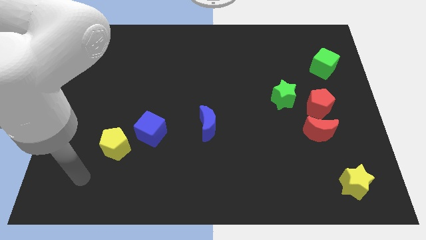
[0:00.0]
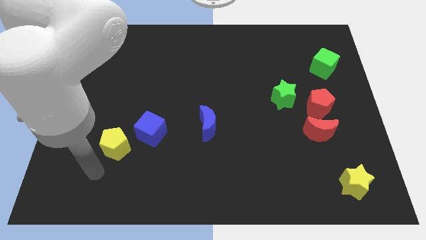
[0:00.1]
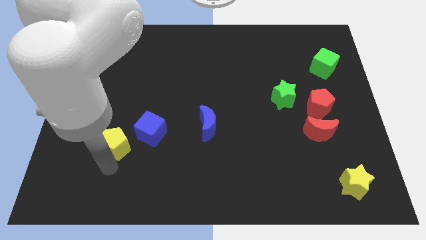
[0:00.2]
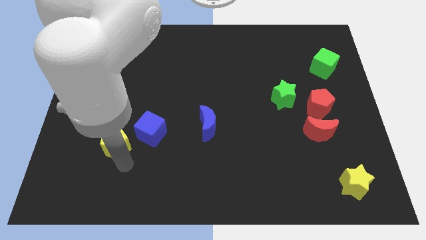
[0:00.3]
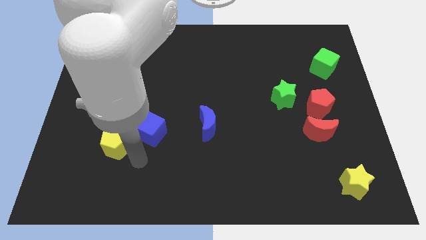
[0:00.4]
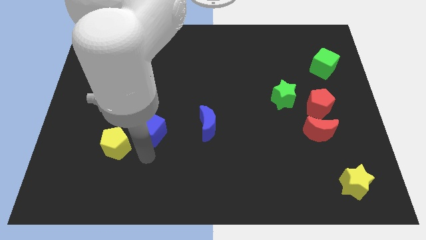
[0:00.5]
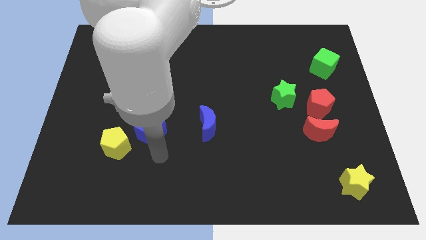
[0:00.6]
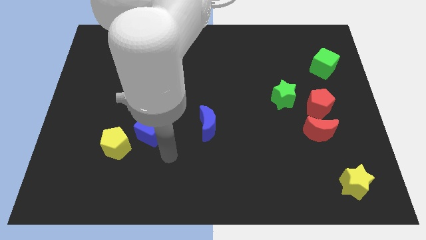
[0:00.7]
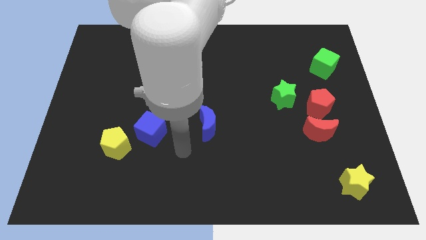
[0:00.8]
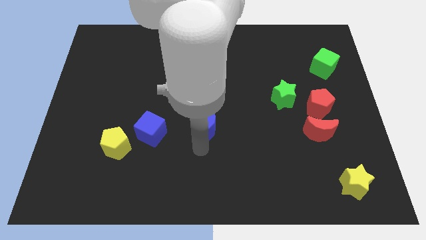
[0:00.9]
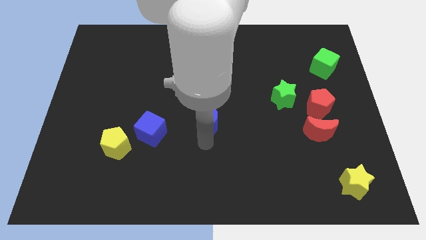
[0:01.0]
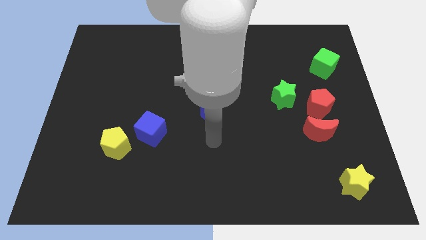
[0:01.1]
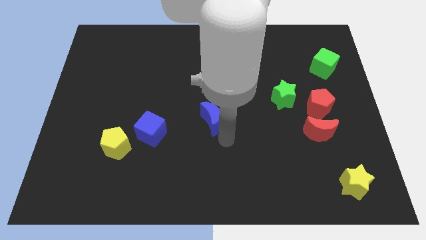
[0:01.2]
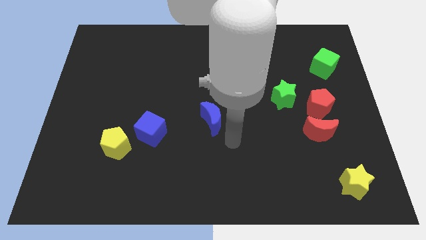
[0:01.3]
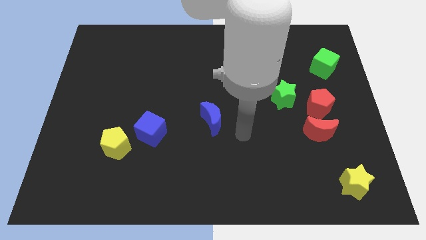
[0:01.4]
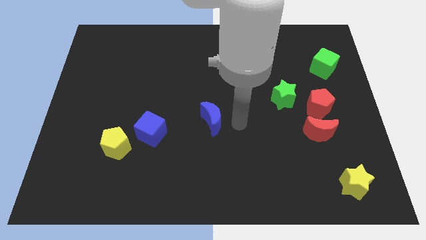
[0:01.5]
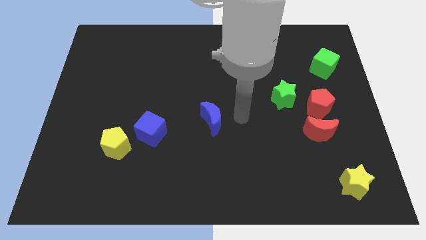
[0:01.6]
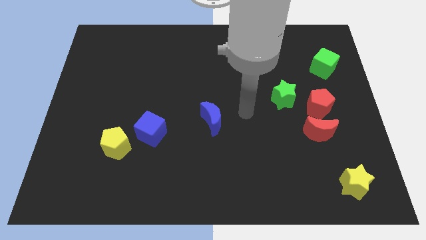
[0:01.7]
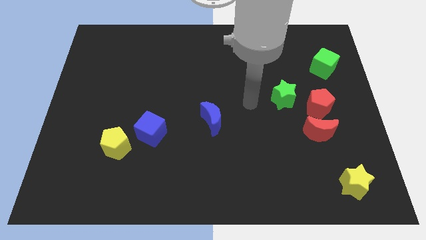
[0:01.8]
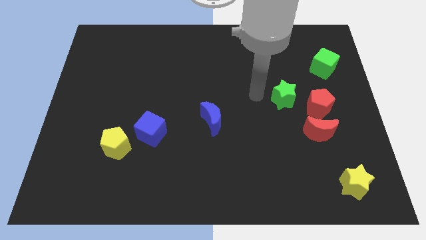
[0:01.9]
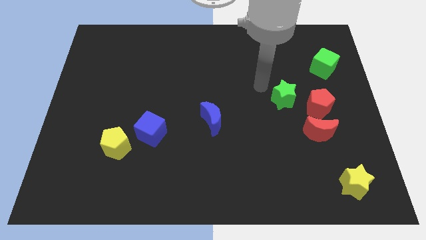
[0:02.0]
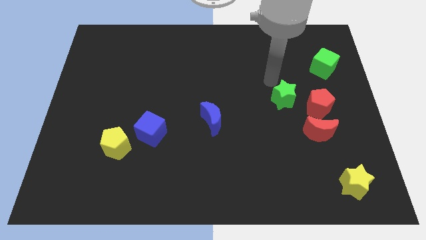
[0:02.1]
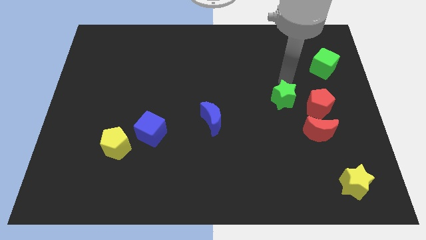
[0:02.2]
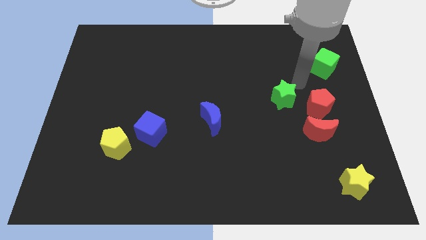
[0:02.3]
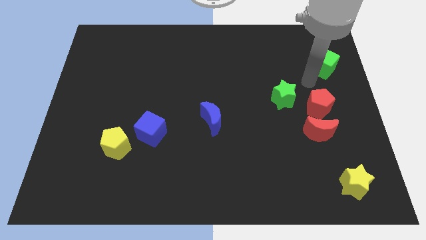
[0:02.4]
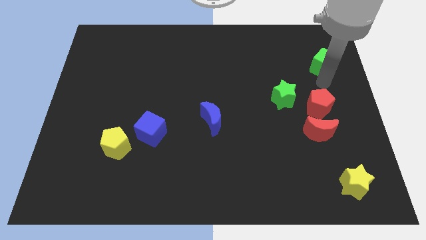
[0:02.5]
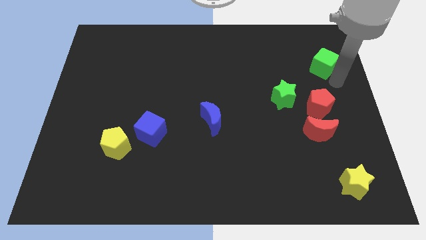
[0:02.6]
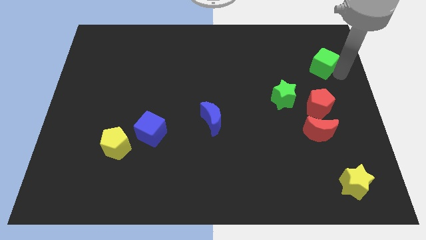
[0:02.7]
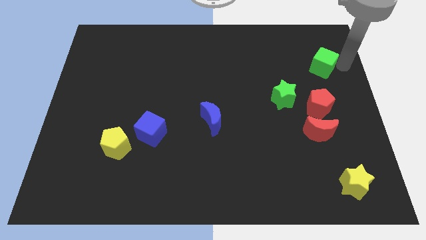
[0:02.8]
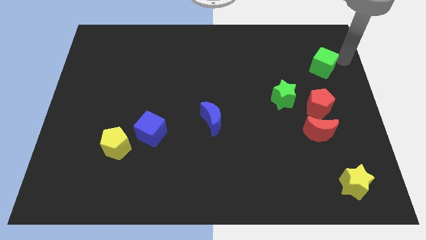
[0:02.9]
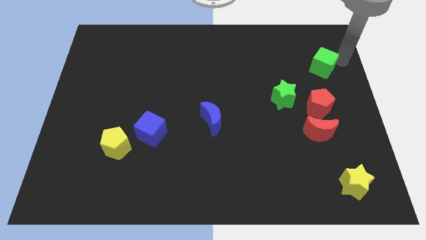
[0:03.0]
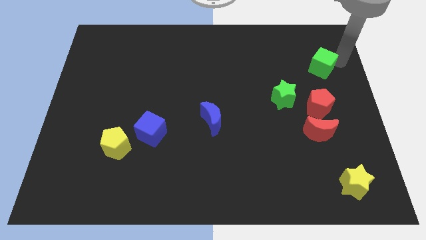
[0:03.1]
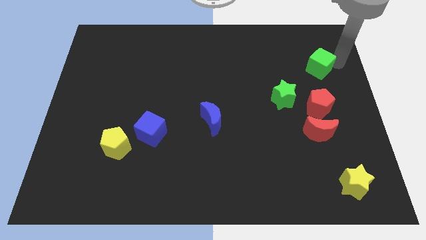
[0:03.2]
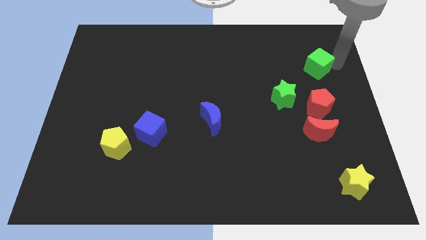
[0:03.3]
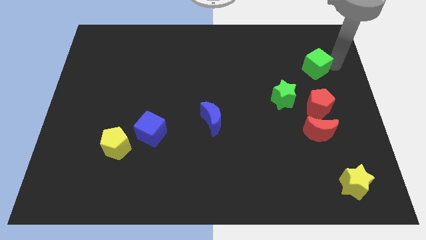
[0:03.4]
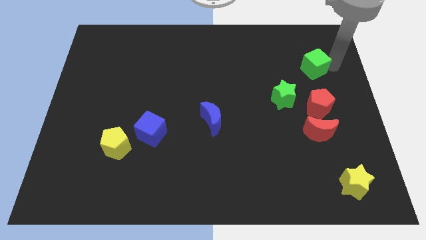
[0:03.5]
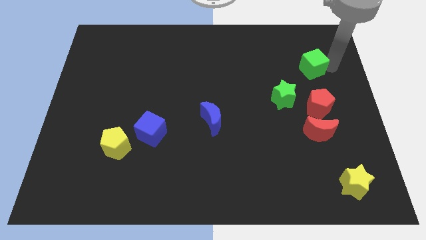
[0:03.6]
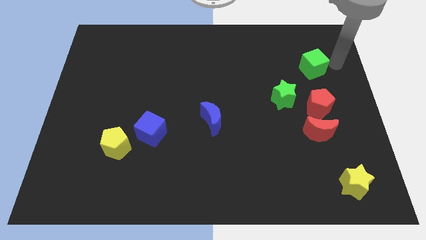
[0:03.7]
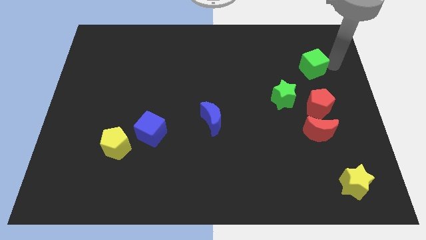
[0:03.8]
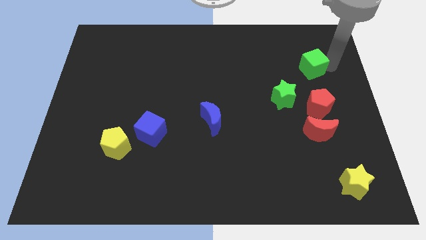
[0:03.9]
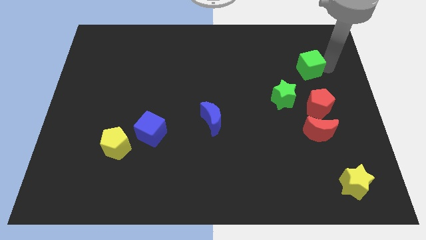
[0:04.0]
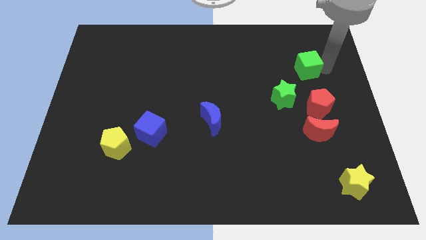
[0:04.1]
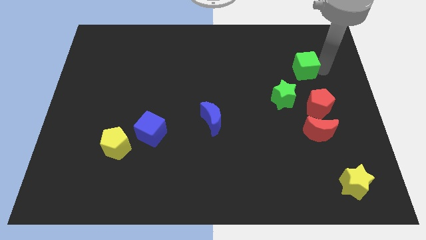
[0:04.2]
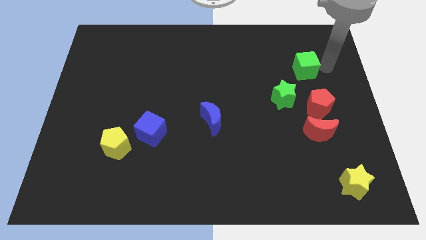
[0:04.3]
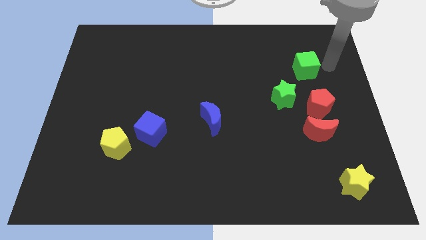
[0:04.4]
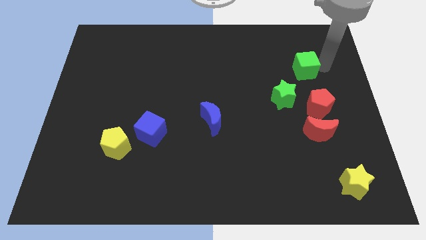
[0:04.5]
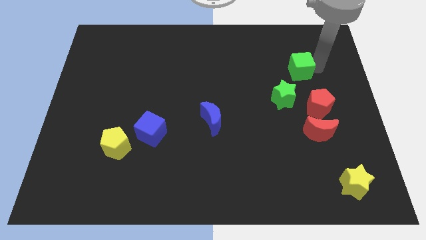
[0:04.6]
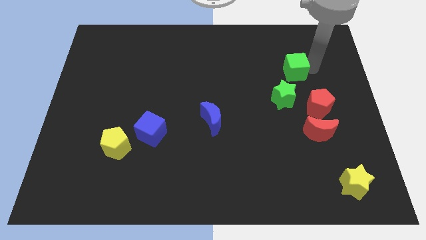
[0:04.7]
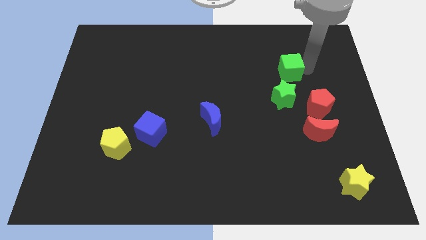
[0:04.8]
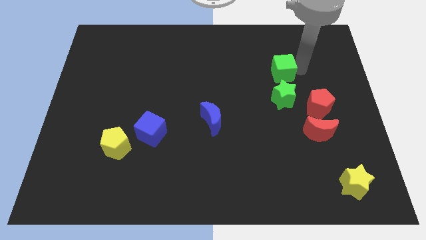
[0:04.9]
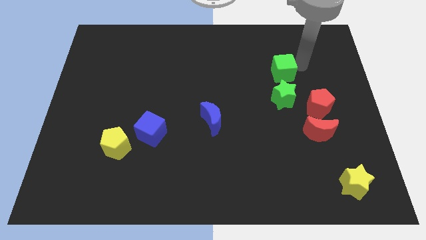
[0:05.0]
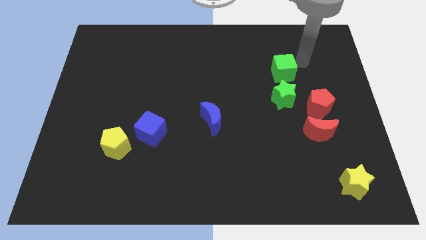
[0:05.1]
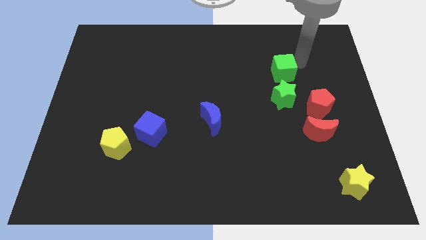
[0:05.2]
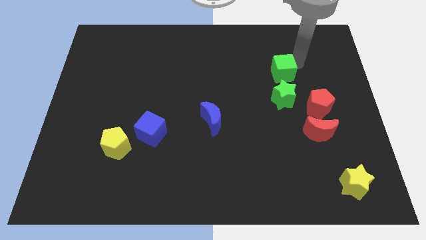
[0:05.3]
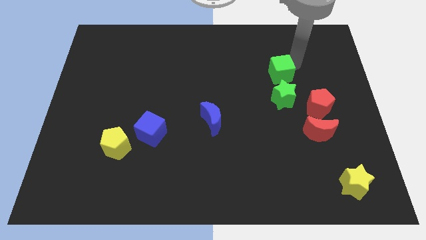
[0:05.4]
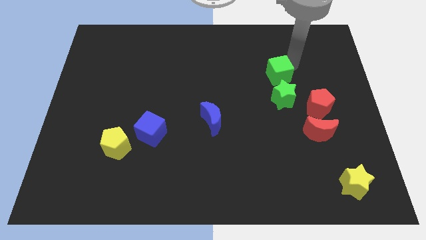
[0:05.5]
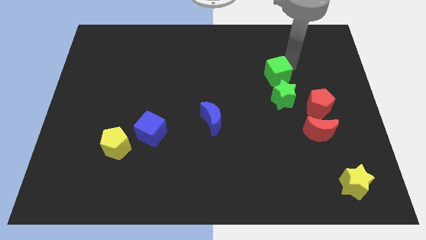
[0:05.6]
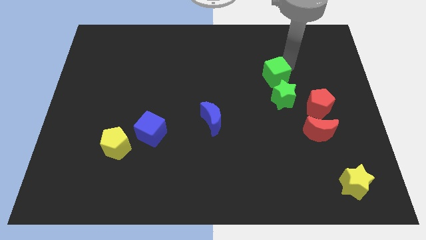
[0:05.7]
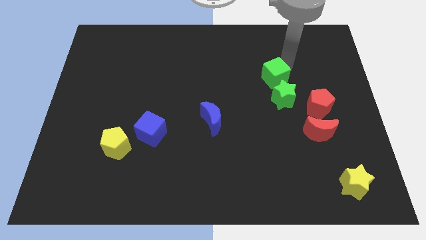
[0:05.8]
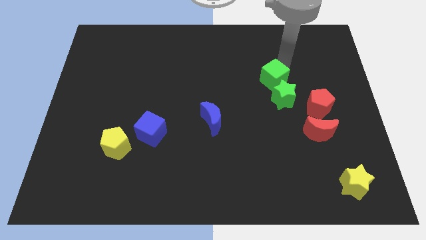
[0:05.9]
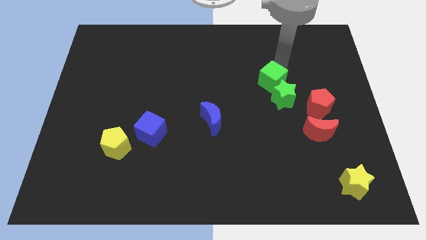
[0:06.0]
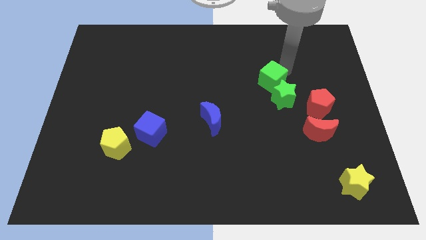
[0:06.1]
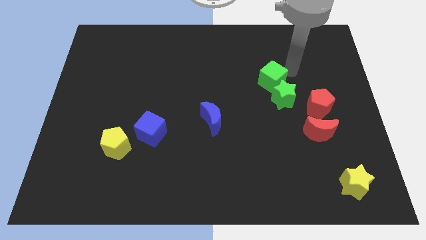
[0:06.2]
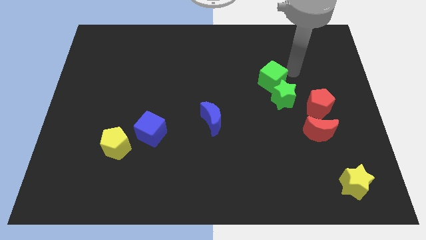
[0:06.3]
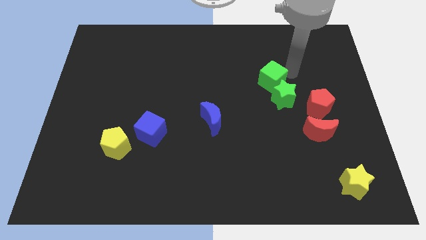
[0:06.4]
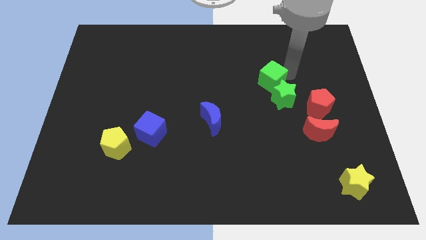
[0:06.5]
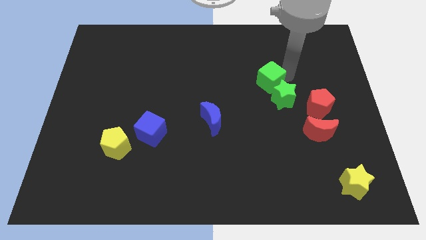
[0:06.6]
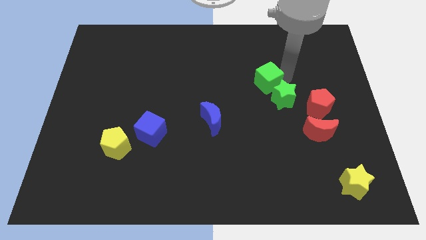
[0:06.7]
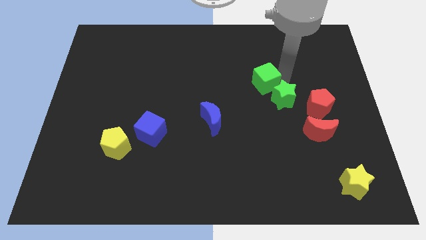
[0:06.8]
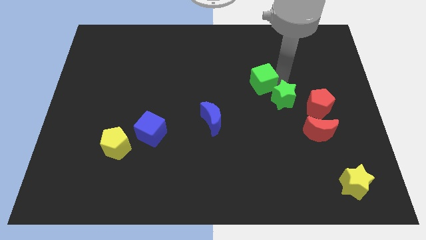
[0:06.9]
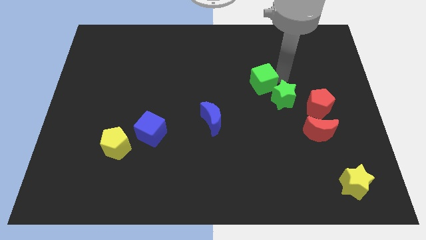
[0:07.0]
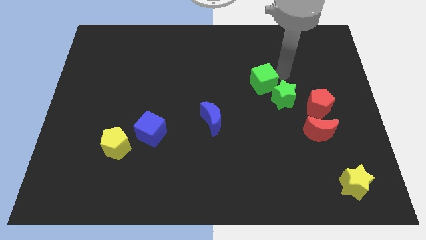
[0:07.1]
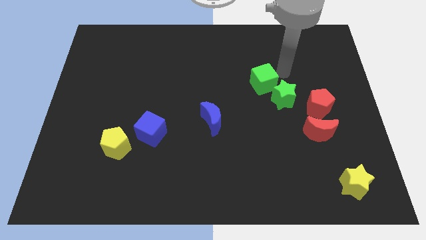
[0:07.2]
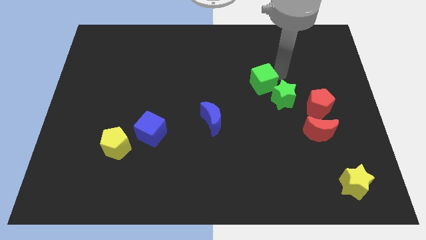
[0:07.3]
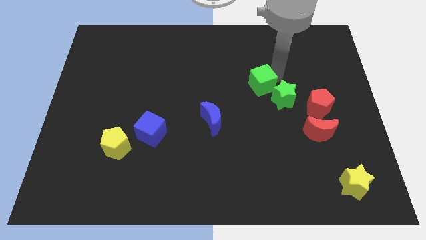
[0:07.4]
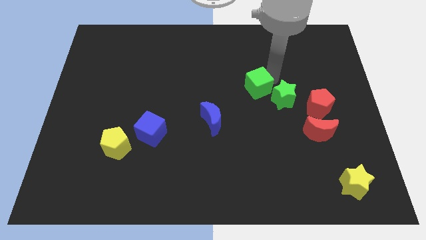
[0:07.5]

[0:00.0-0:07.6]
push the green cube to the center of the board
